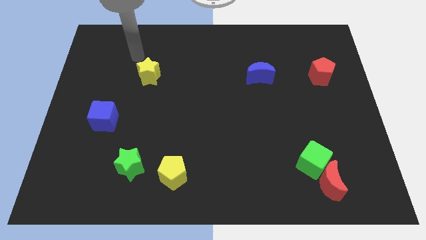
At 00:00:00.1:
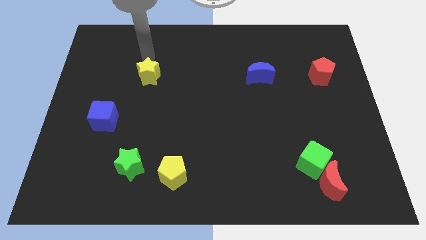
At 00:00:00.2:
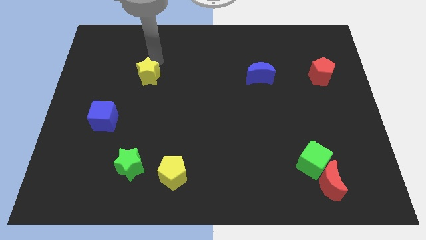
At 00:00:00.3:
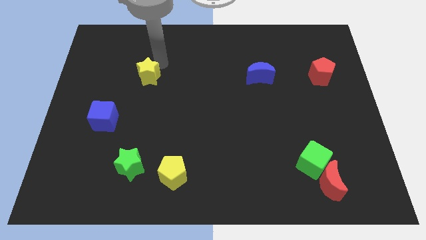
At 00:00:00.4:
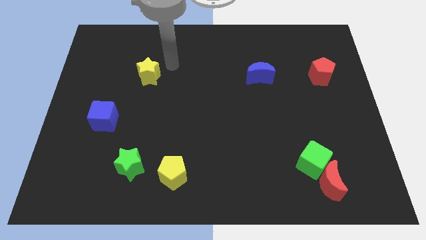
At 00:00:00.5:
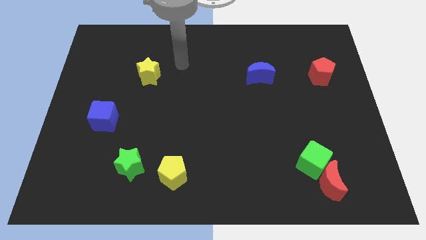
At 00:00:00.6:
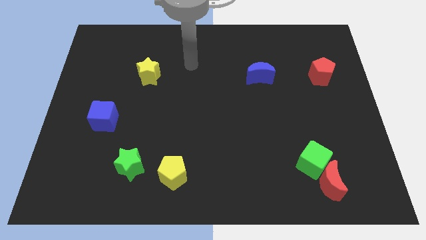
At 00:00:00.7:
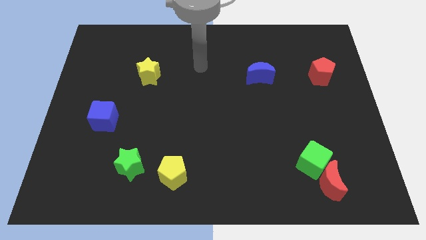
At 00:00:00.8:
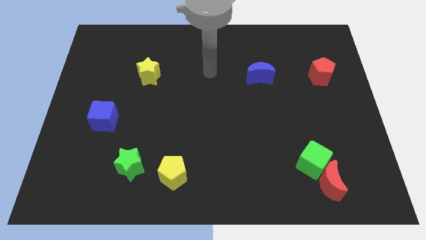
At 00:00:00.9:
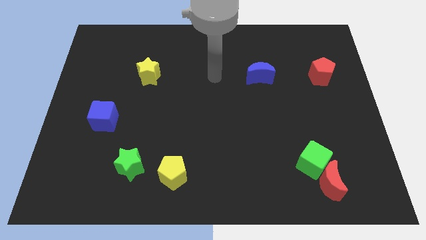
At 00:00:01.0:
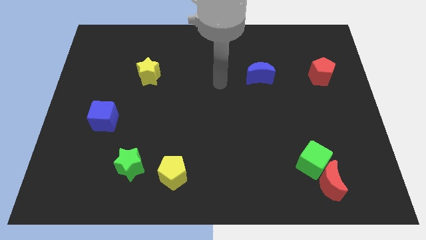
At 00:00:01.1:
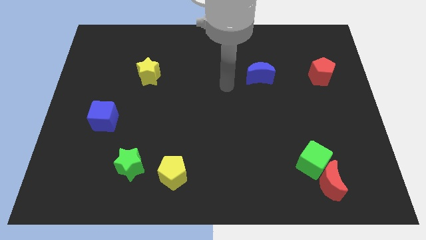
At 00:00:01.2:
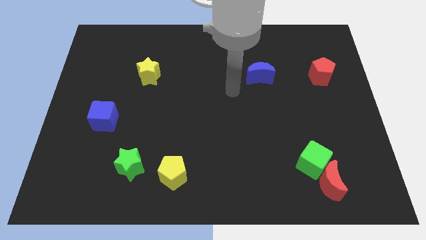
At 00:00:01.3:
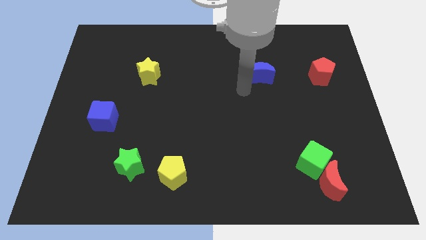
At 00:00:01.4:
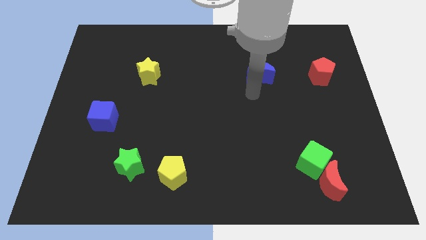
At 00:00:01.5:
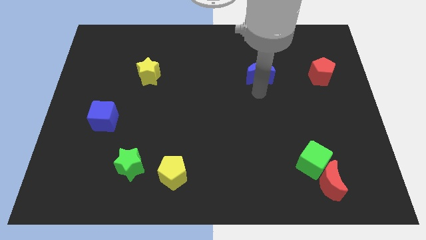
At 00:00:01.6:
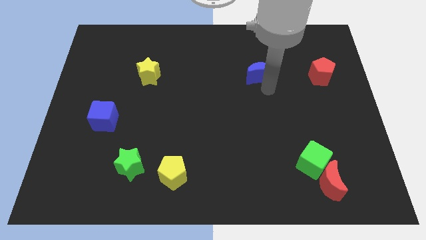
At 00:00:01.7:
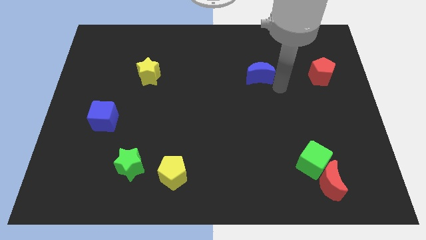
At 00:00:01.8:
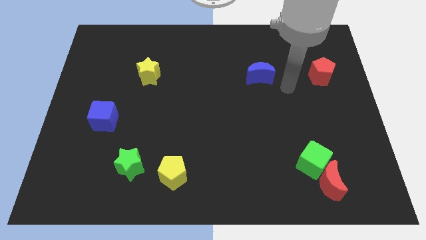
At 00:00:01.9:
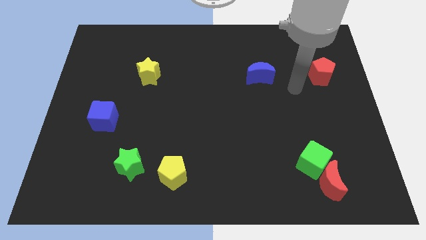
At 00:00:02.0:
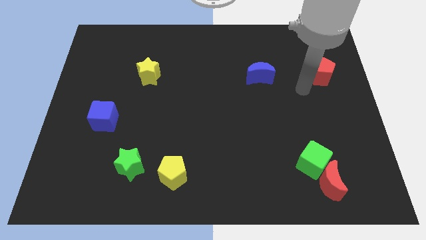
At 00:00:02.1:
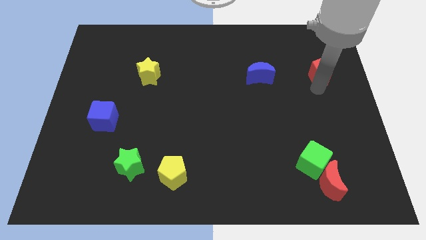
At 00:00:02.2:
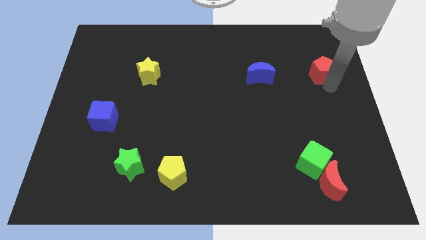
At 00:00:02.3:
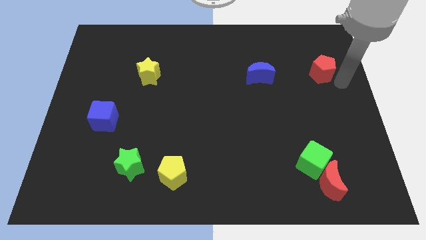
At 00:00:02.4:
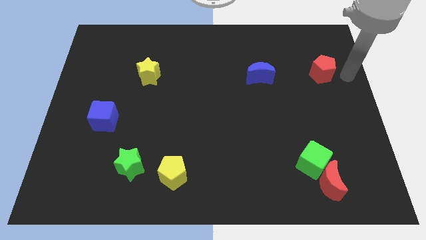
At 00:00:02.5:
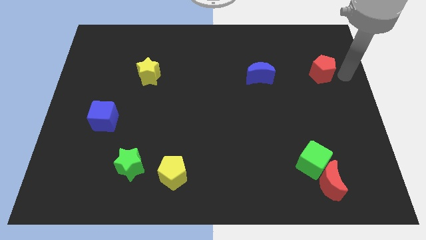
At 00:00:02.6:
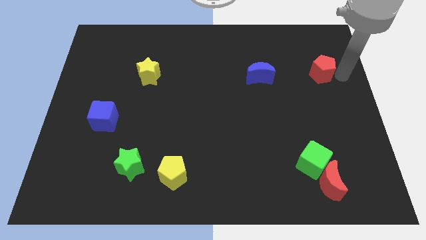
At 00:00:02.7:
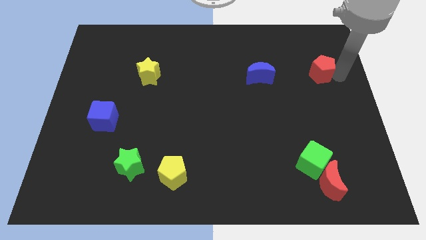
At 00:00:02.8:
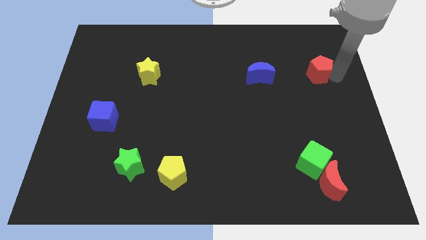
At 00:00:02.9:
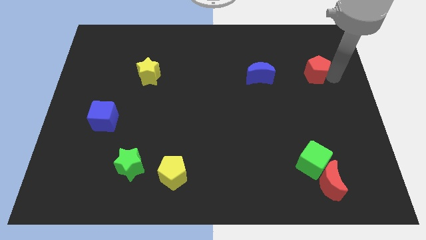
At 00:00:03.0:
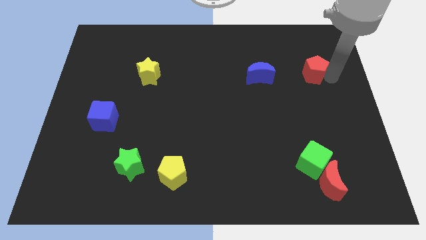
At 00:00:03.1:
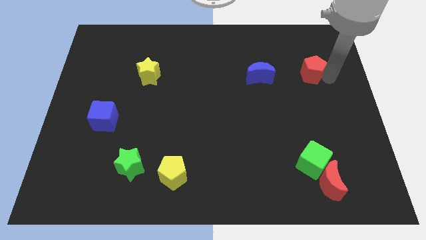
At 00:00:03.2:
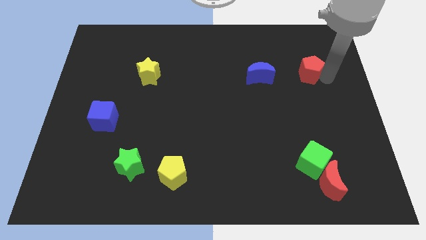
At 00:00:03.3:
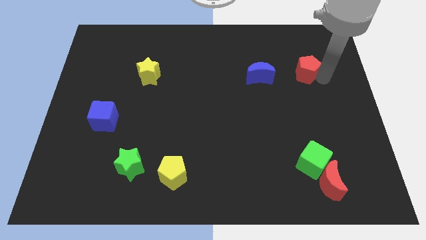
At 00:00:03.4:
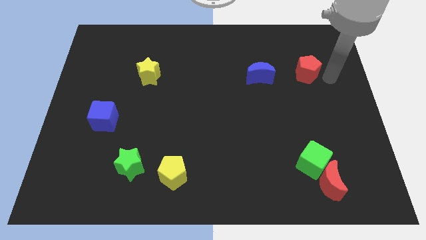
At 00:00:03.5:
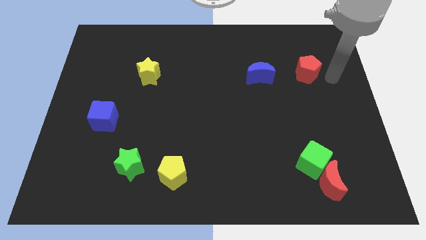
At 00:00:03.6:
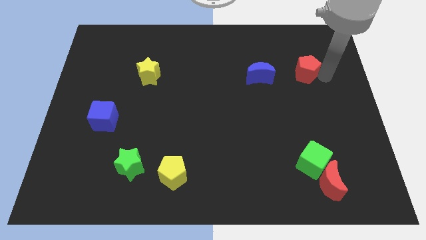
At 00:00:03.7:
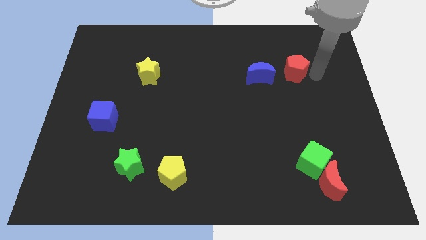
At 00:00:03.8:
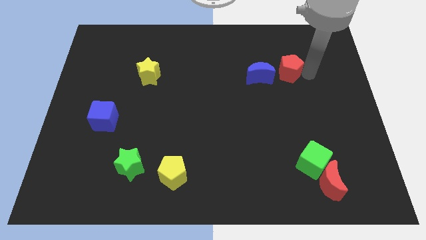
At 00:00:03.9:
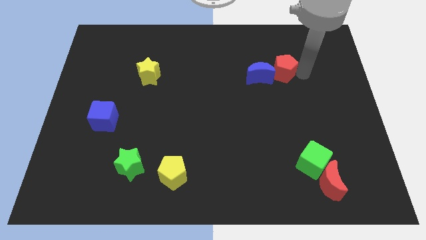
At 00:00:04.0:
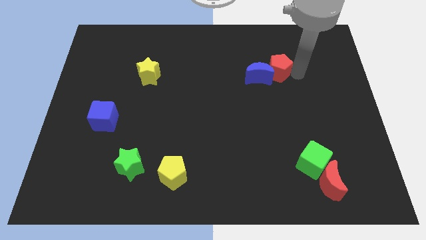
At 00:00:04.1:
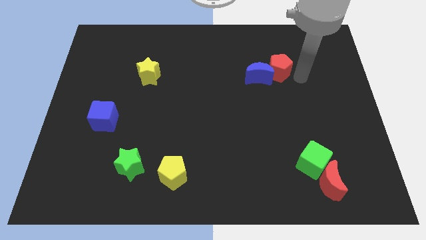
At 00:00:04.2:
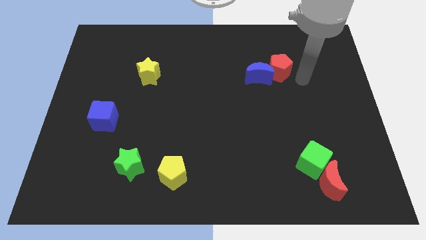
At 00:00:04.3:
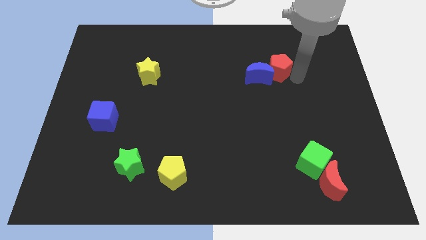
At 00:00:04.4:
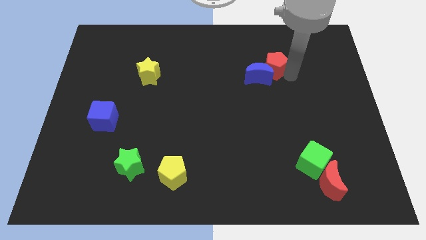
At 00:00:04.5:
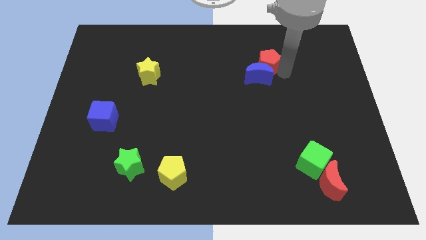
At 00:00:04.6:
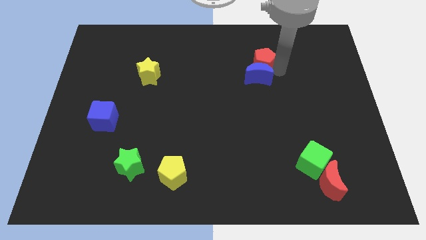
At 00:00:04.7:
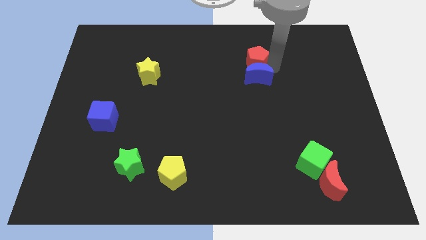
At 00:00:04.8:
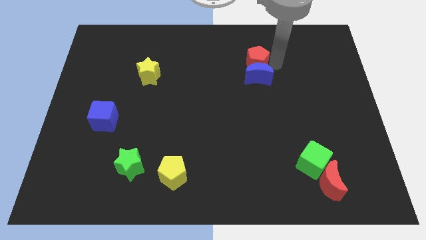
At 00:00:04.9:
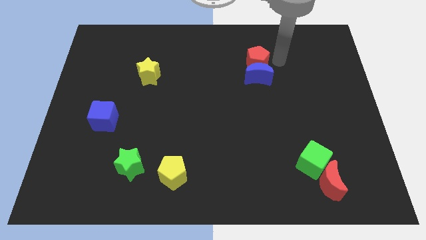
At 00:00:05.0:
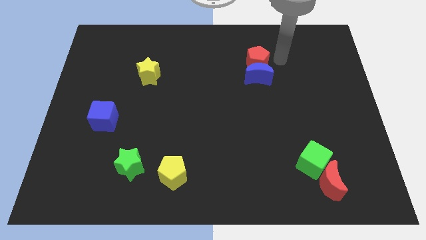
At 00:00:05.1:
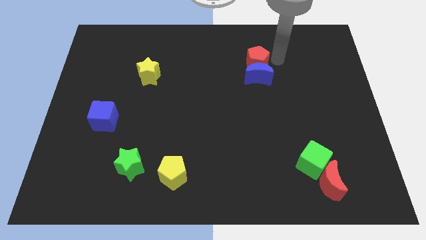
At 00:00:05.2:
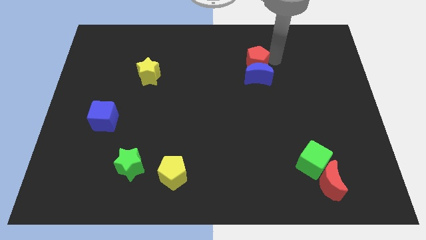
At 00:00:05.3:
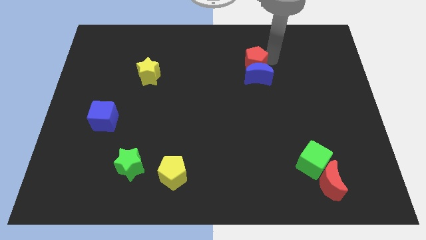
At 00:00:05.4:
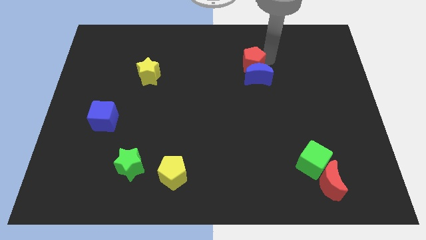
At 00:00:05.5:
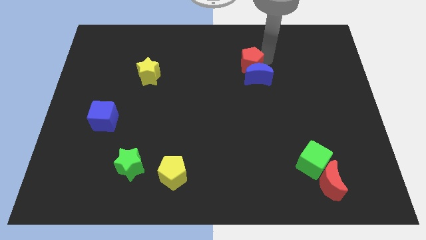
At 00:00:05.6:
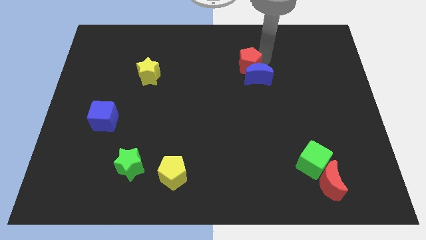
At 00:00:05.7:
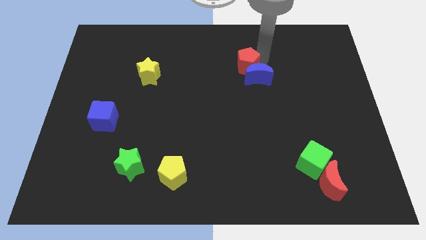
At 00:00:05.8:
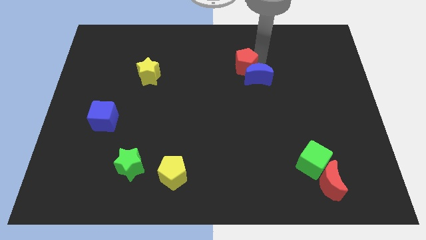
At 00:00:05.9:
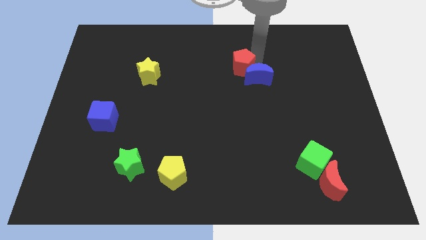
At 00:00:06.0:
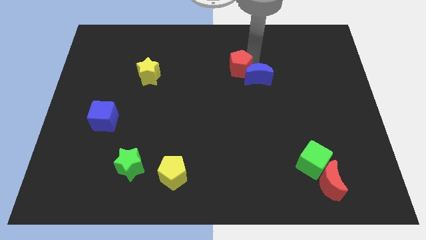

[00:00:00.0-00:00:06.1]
slide the red pentagon to the left

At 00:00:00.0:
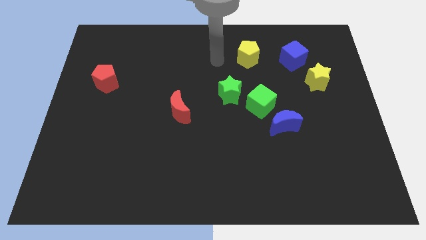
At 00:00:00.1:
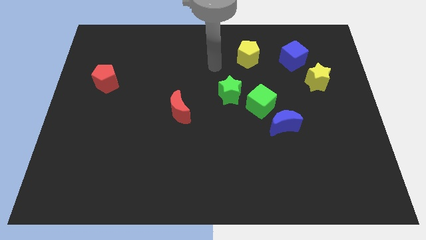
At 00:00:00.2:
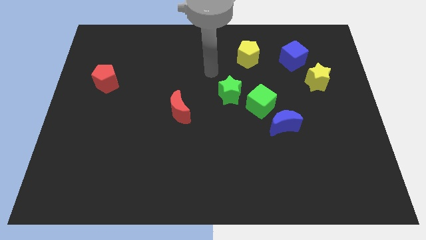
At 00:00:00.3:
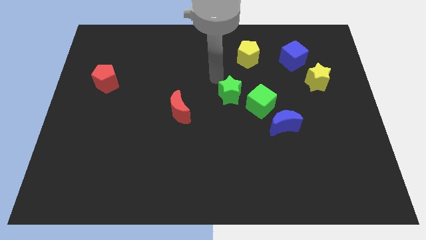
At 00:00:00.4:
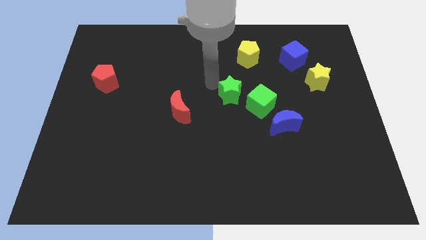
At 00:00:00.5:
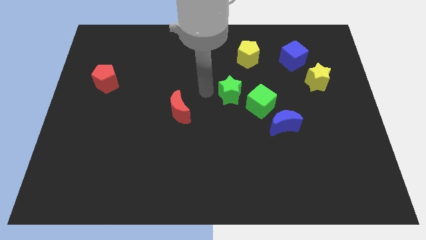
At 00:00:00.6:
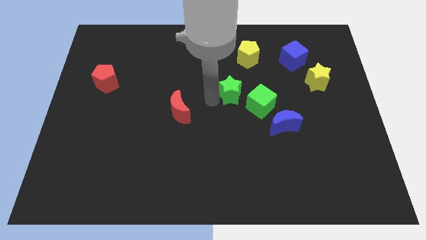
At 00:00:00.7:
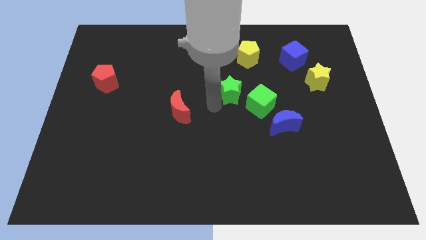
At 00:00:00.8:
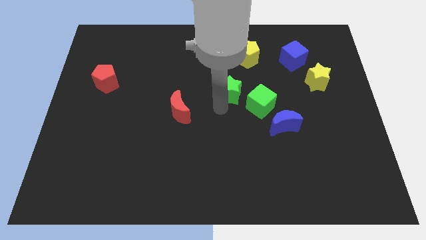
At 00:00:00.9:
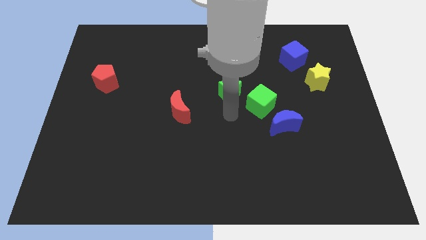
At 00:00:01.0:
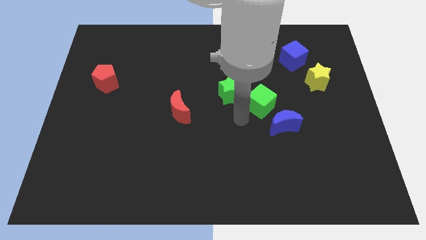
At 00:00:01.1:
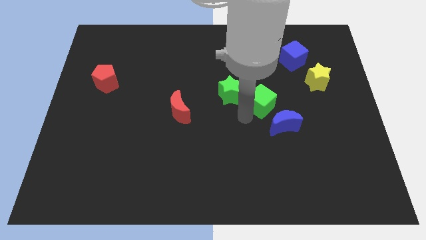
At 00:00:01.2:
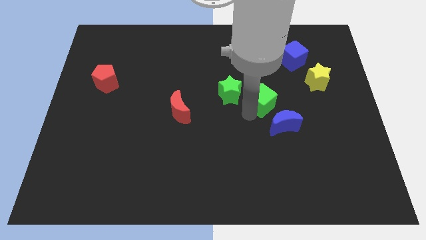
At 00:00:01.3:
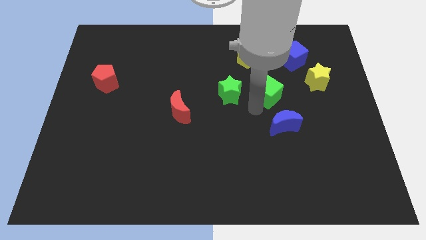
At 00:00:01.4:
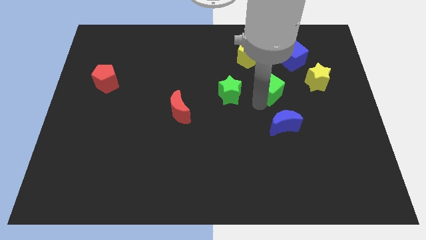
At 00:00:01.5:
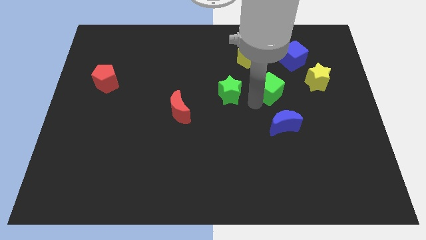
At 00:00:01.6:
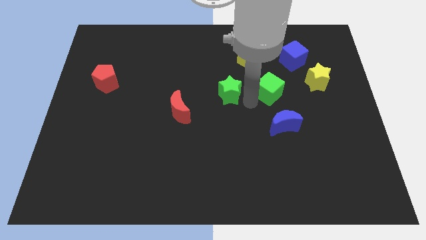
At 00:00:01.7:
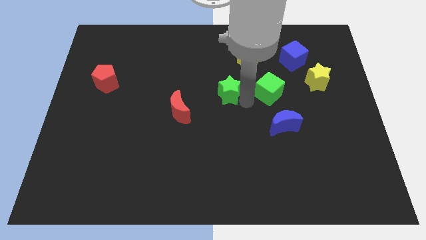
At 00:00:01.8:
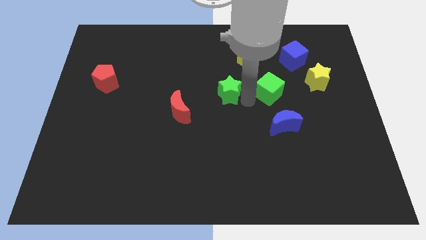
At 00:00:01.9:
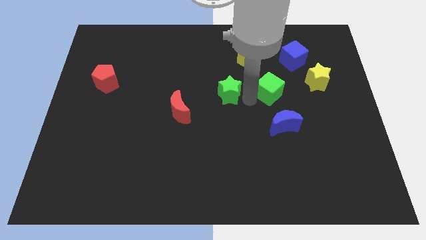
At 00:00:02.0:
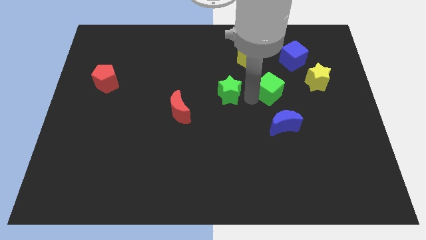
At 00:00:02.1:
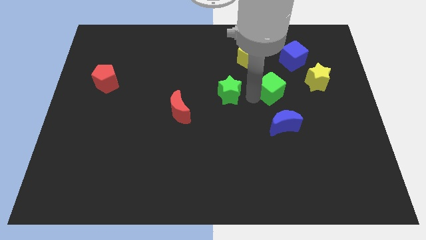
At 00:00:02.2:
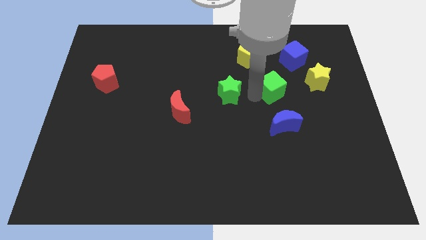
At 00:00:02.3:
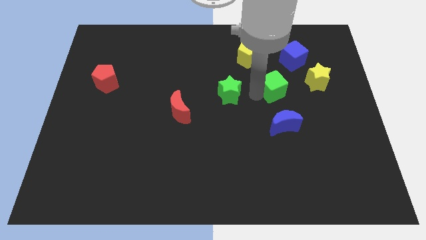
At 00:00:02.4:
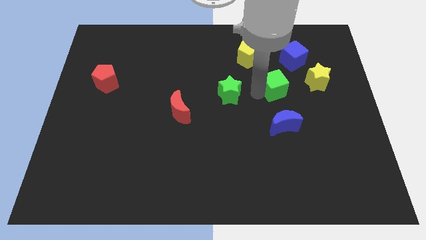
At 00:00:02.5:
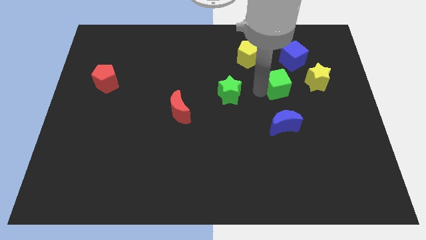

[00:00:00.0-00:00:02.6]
slightly push the green cube up and then to the right
